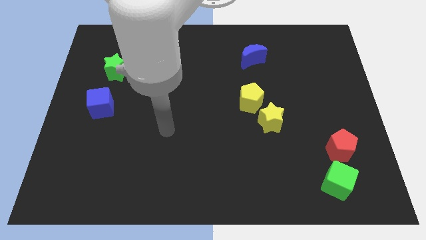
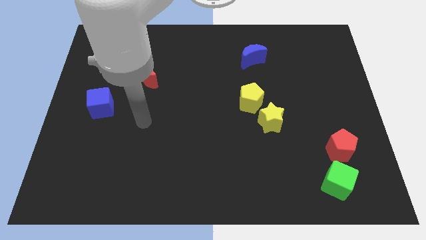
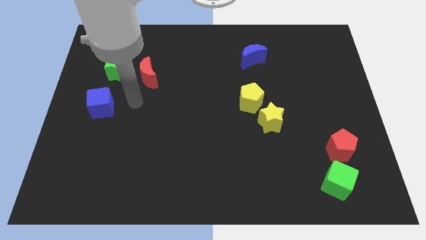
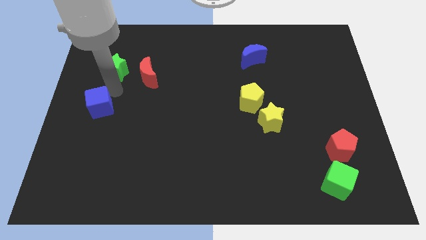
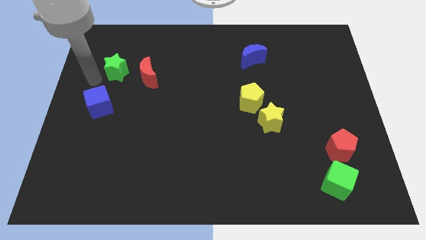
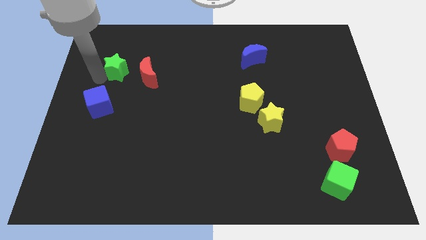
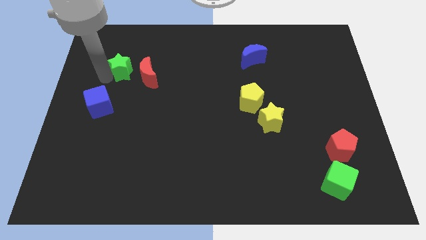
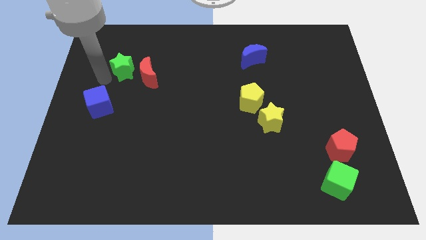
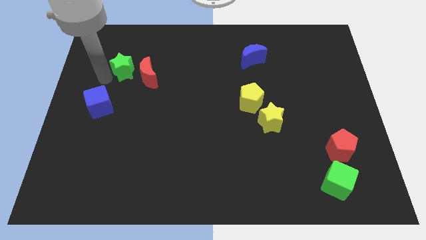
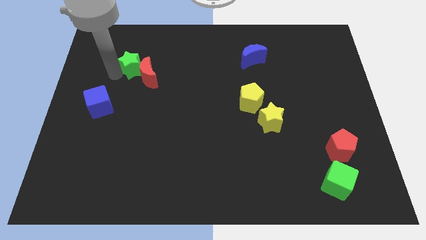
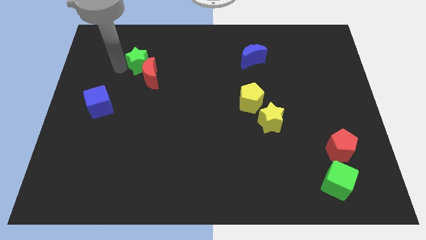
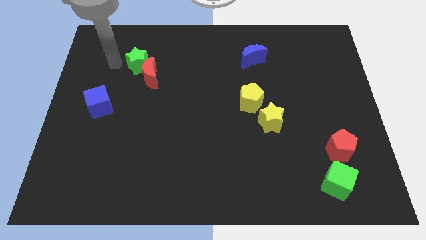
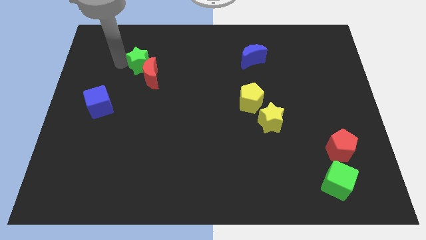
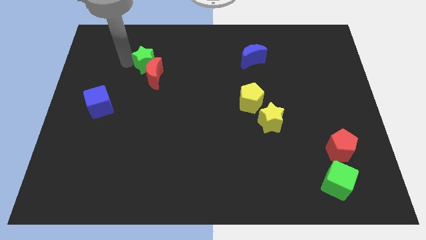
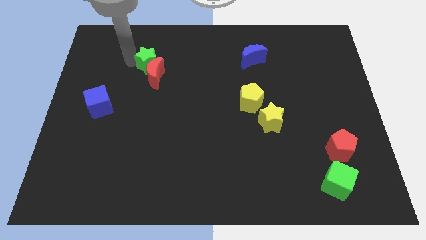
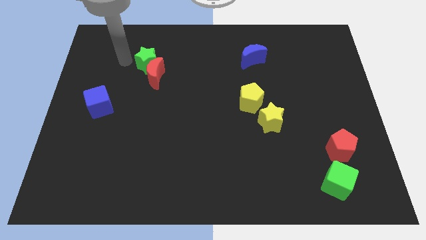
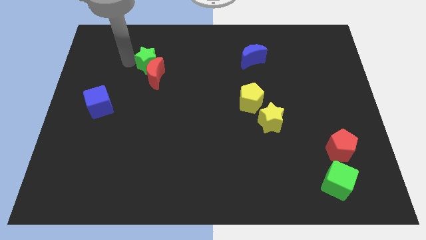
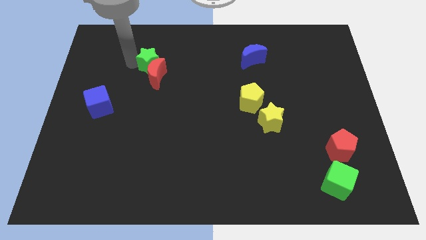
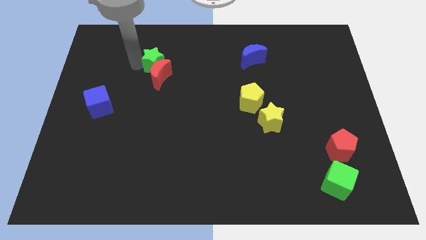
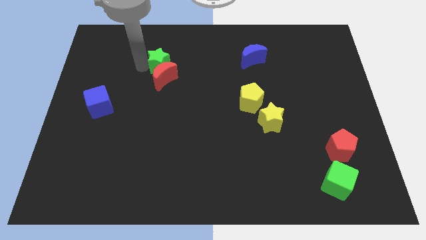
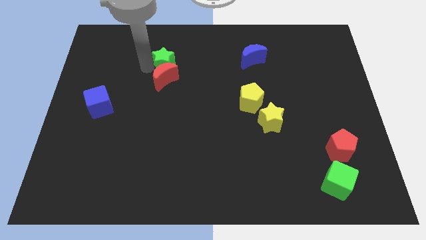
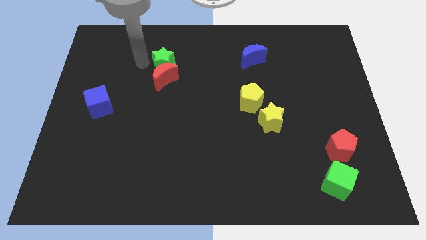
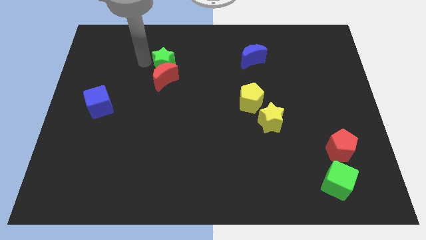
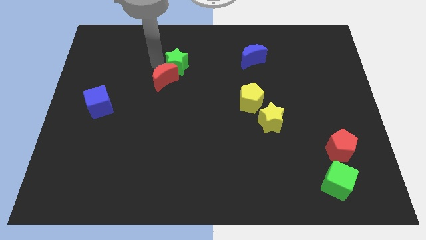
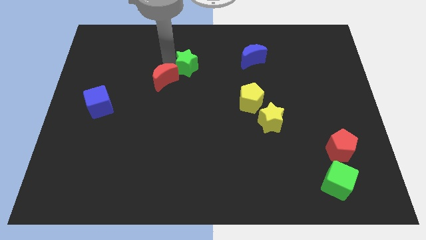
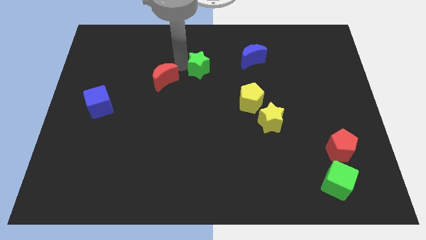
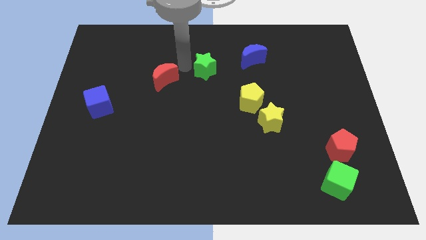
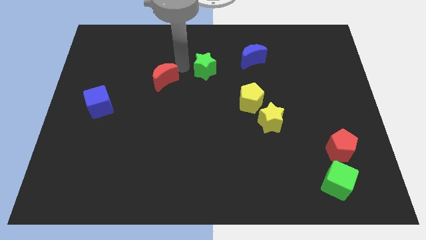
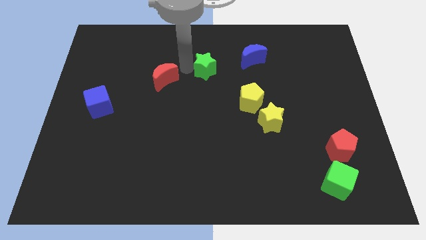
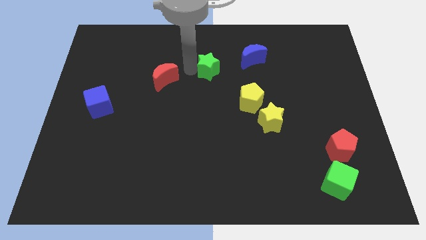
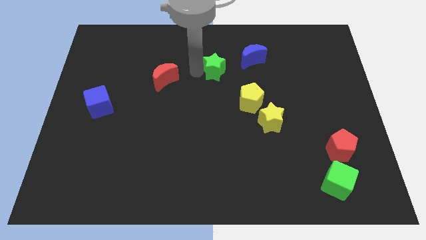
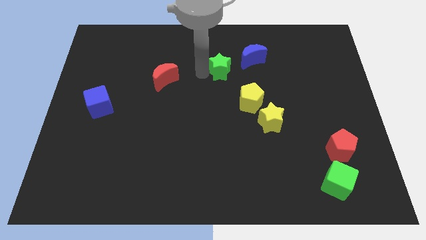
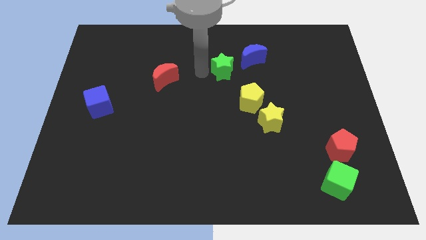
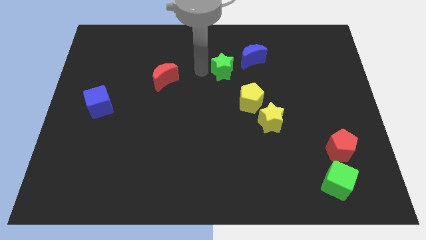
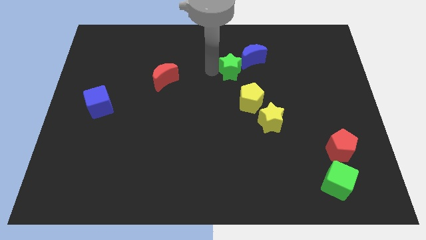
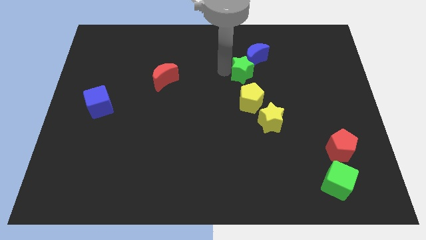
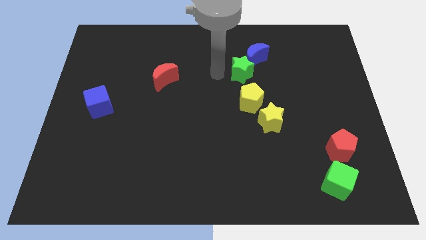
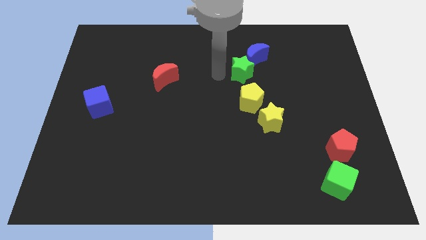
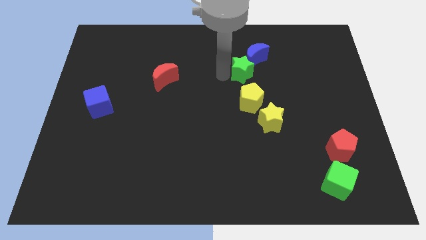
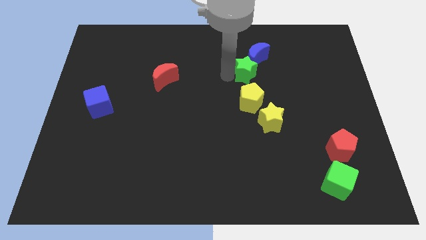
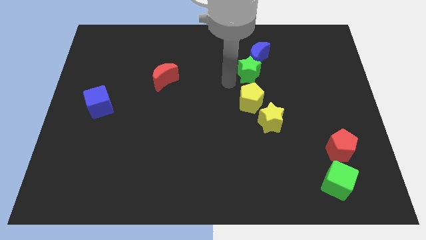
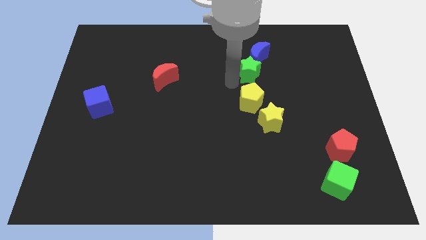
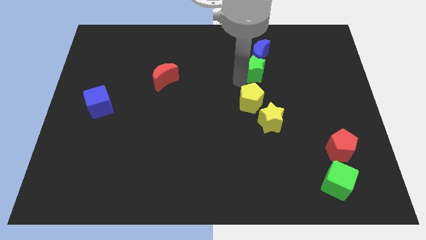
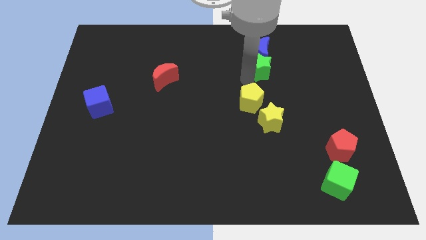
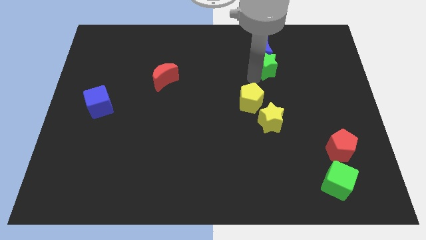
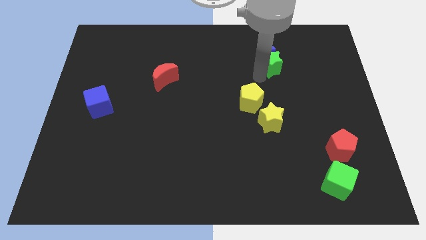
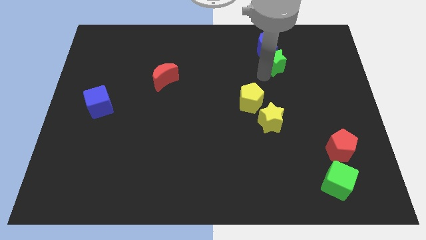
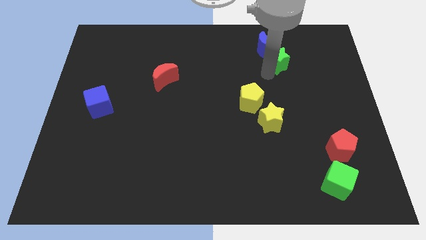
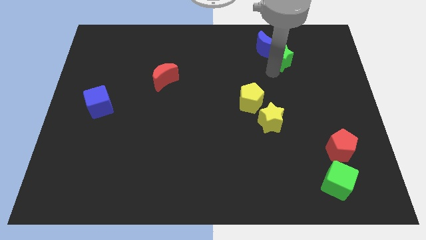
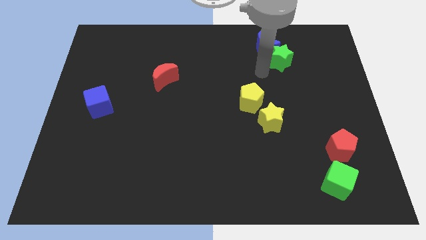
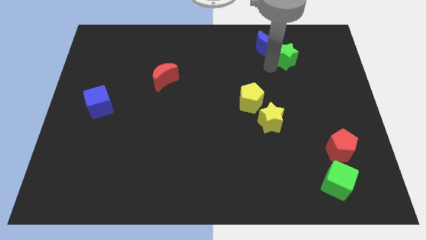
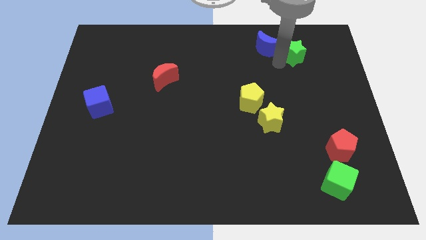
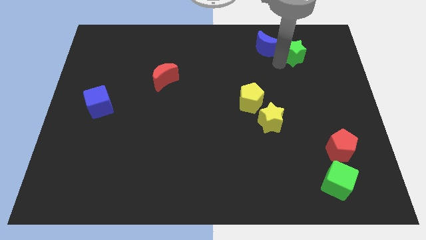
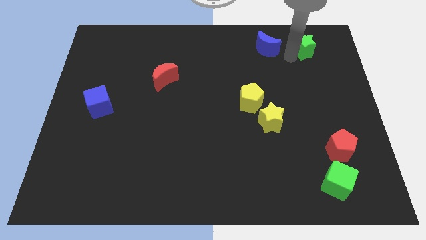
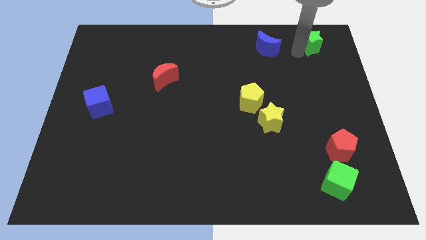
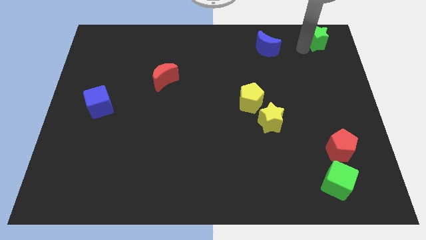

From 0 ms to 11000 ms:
push the green star to the top right of the board

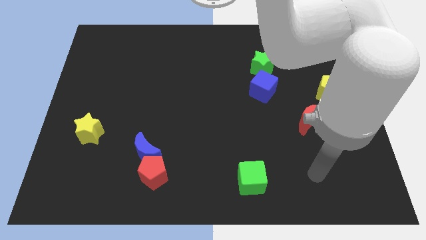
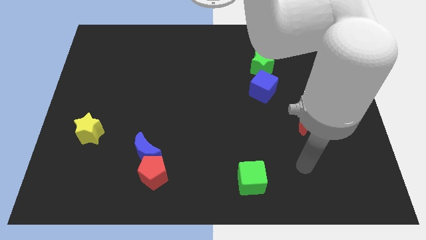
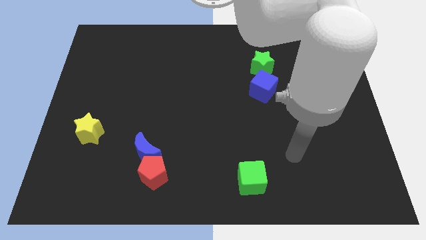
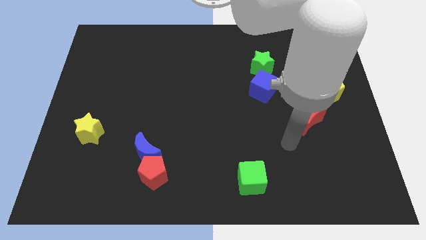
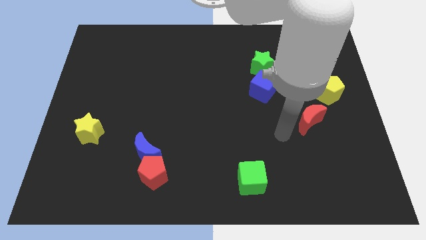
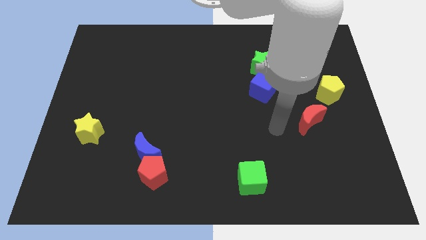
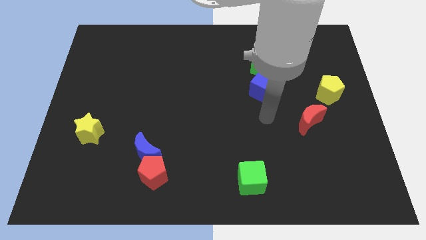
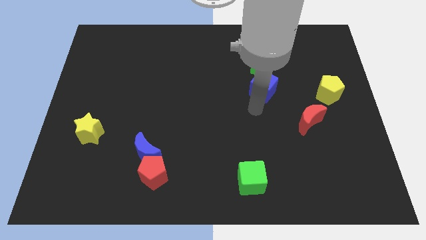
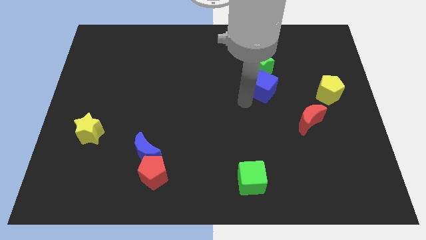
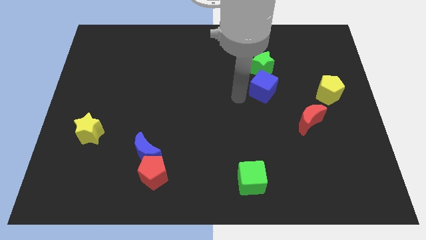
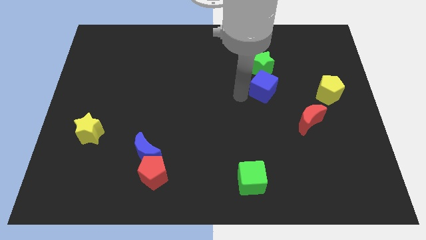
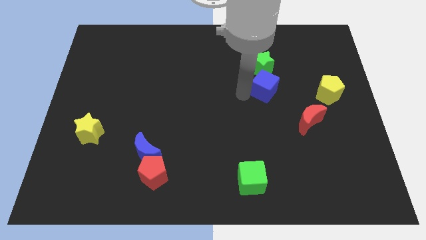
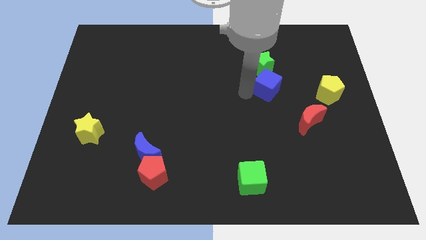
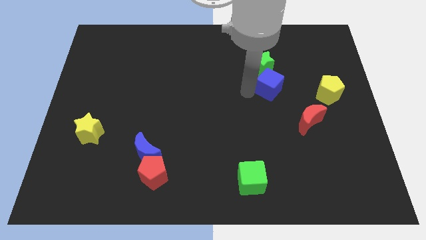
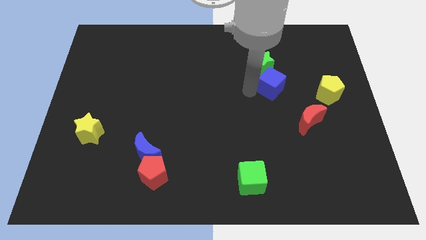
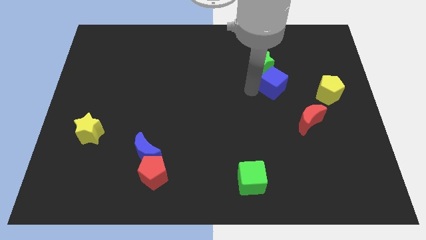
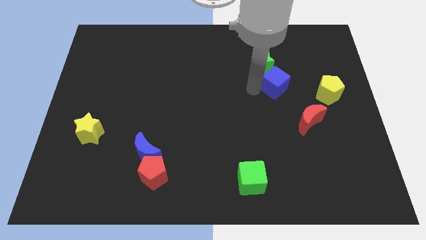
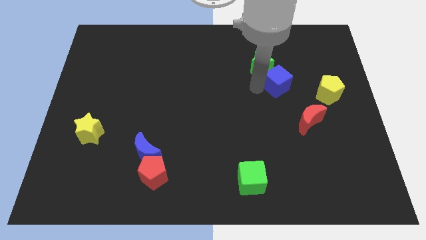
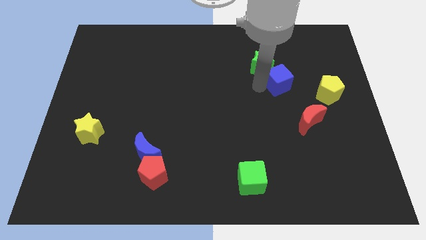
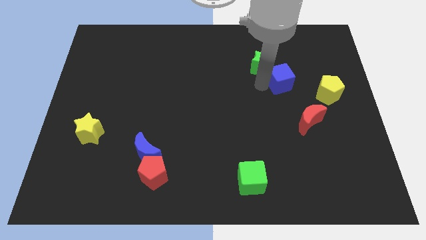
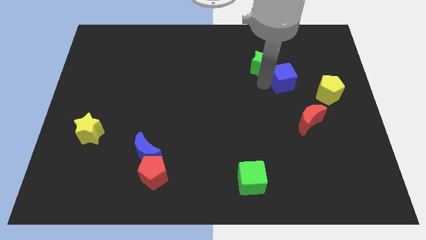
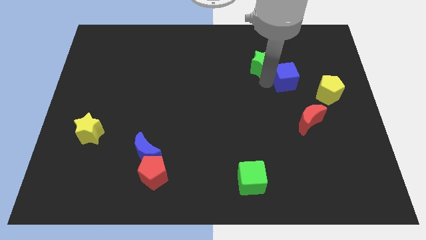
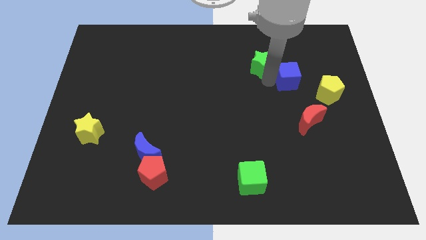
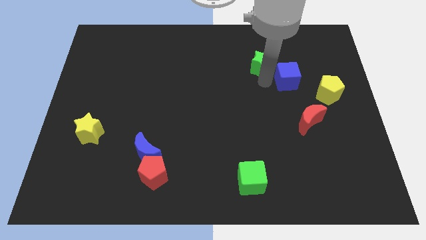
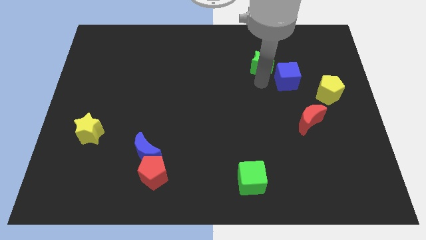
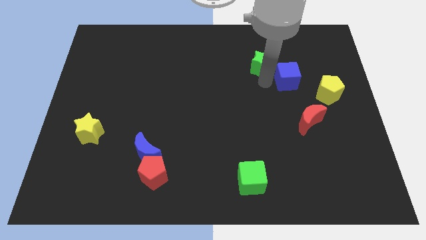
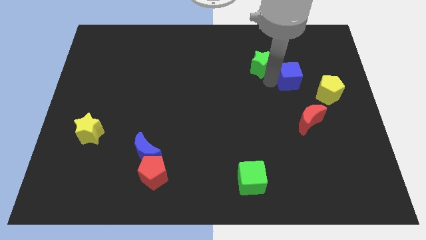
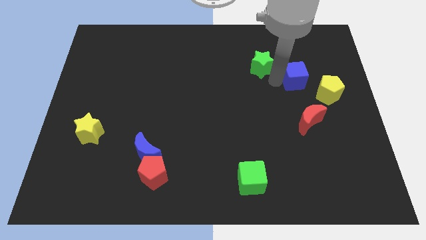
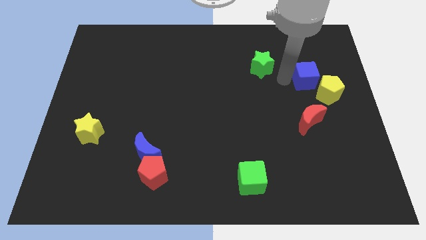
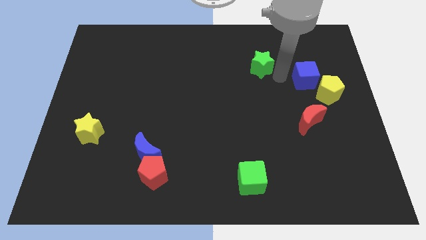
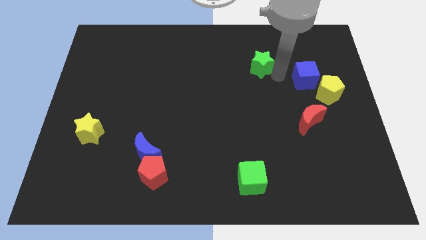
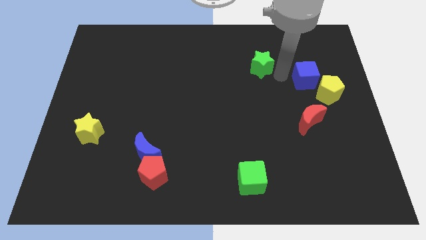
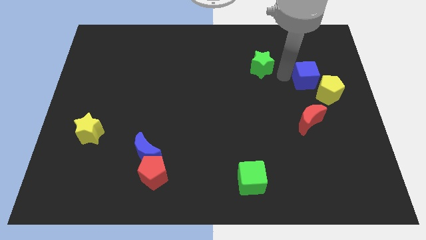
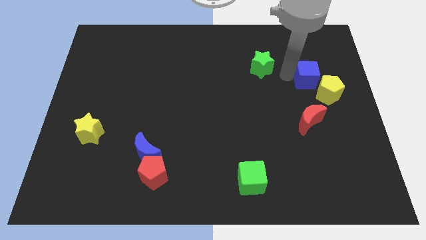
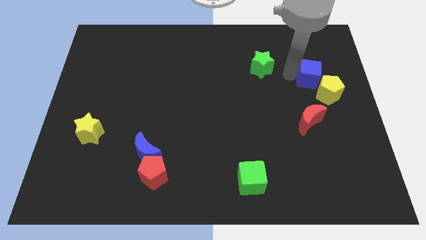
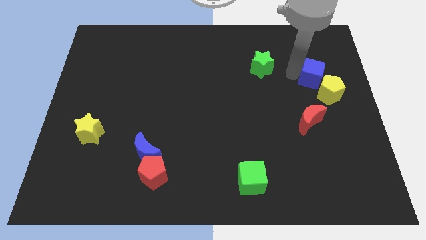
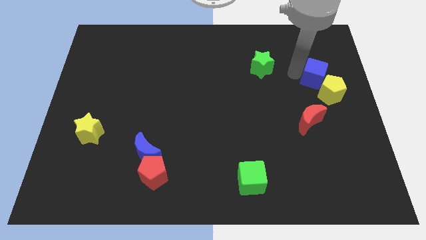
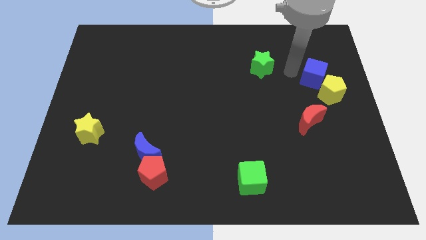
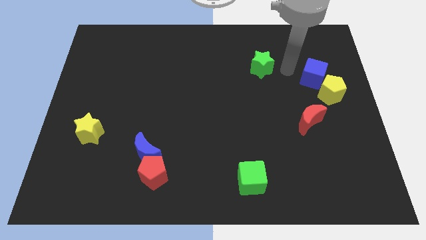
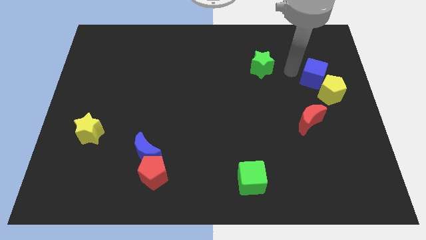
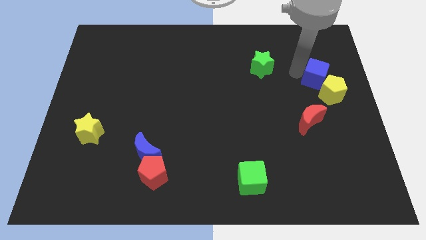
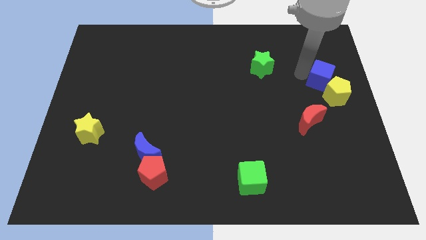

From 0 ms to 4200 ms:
push the blue cube to the center right
